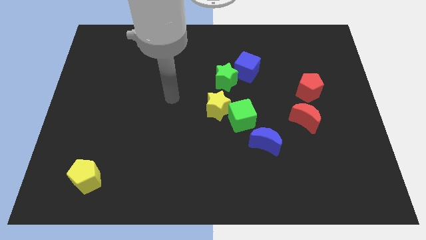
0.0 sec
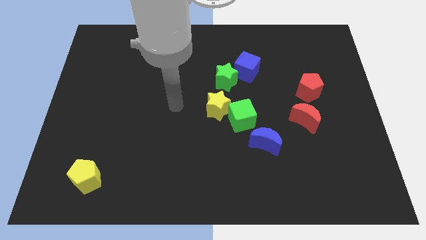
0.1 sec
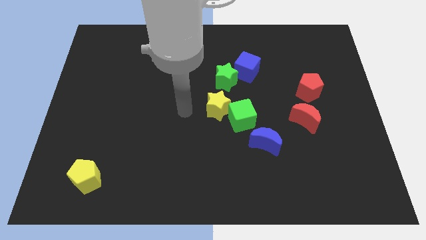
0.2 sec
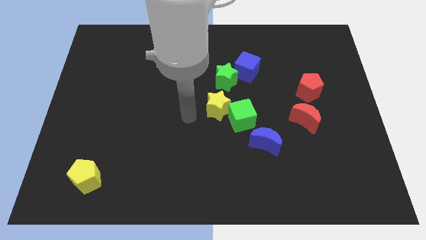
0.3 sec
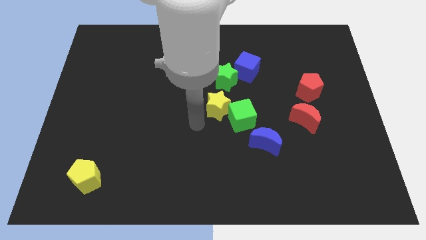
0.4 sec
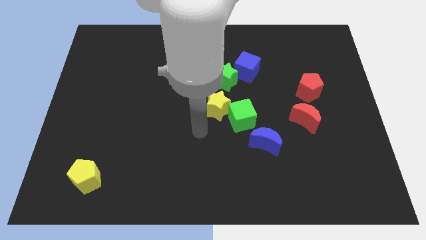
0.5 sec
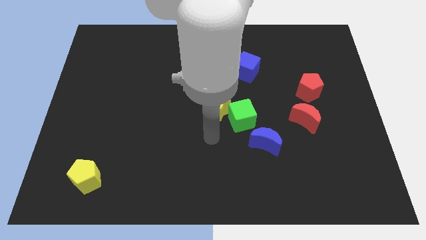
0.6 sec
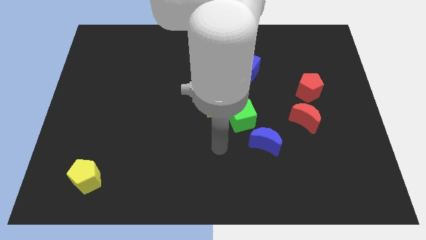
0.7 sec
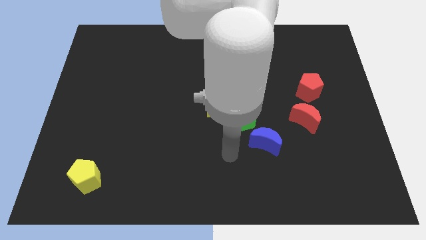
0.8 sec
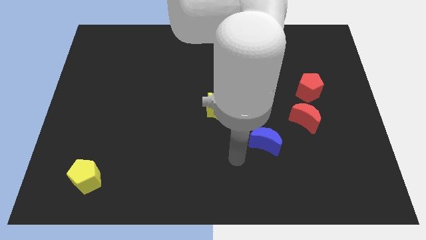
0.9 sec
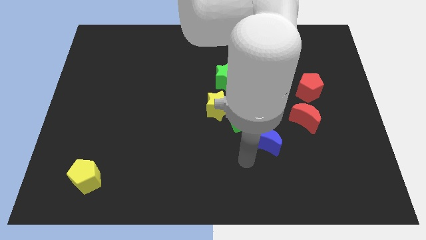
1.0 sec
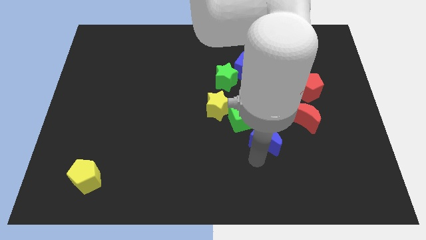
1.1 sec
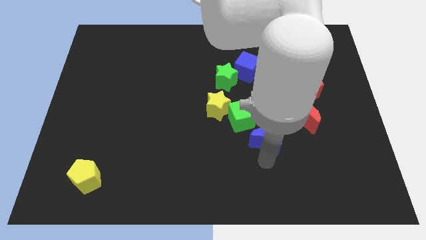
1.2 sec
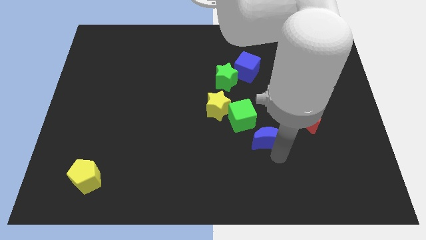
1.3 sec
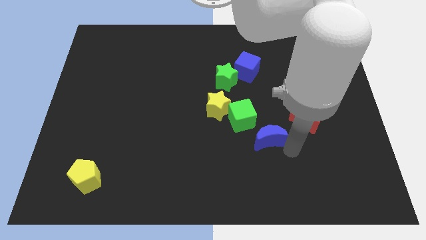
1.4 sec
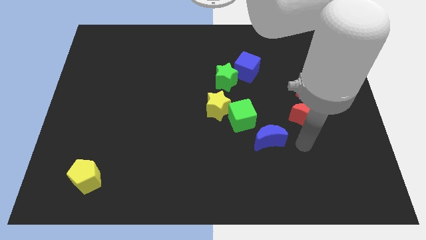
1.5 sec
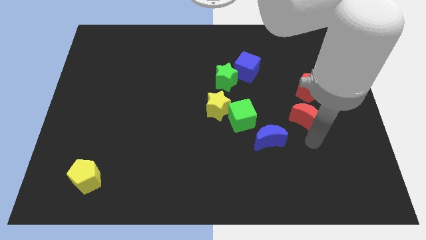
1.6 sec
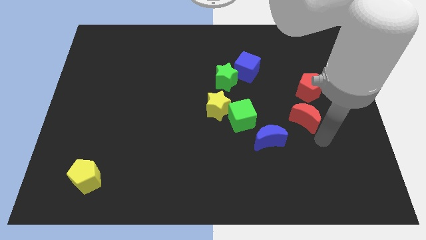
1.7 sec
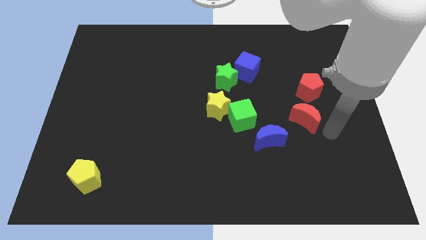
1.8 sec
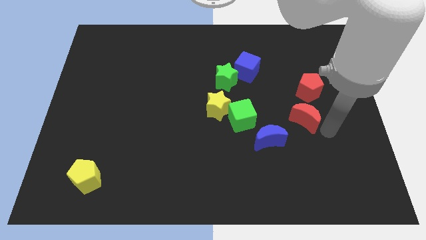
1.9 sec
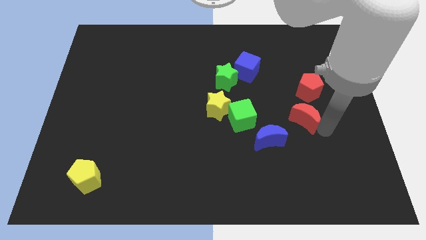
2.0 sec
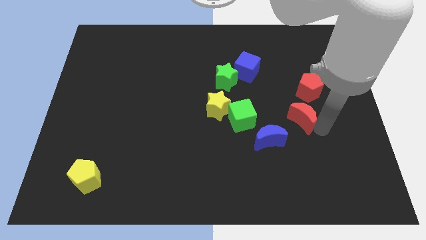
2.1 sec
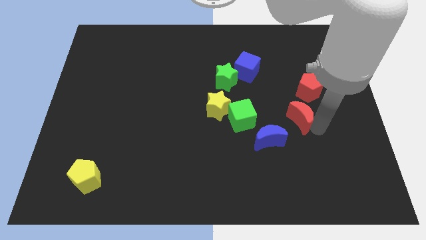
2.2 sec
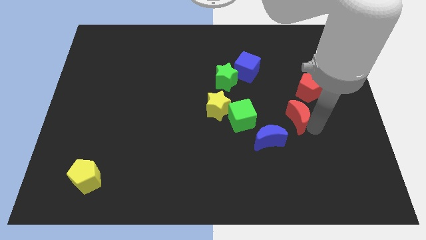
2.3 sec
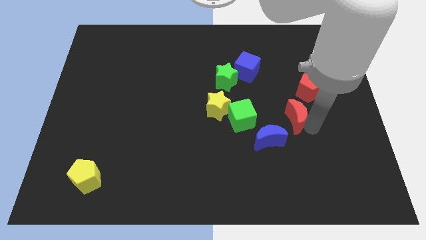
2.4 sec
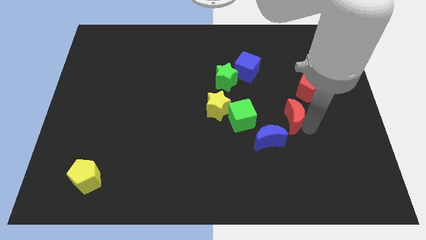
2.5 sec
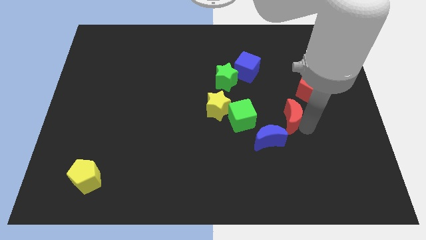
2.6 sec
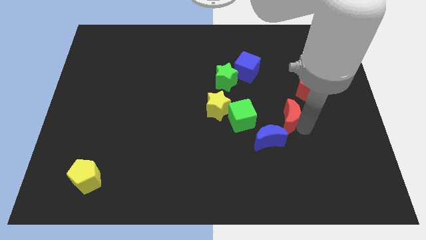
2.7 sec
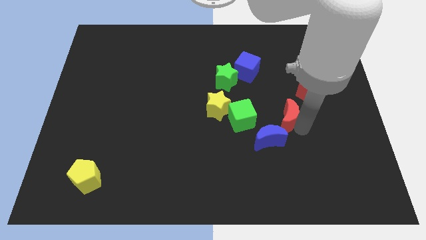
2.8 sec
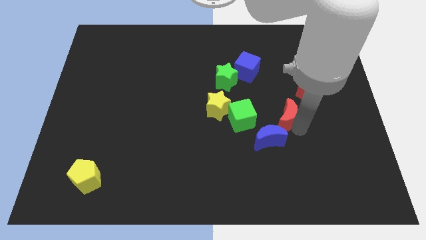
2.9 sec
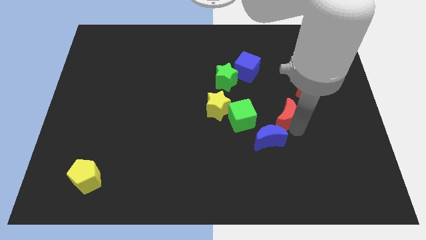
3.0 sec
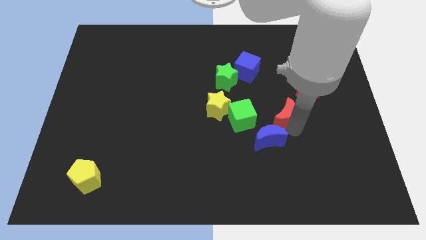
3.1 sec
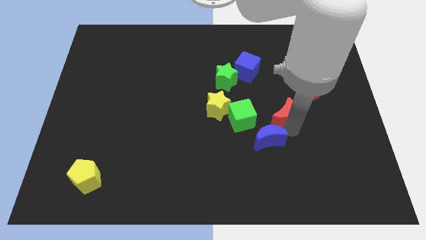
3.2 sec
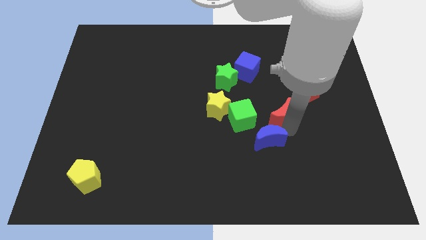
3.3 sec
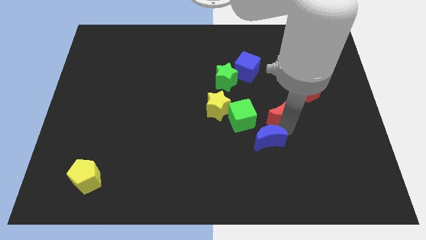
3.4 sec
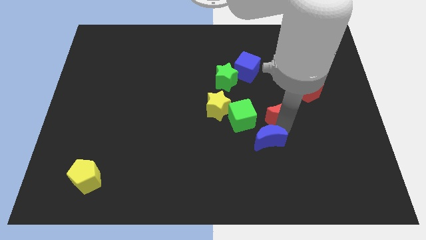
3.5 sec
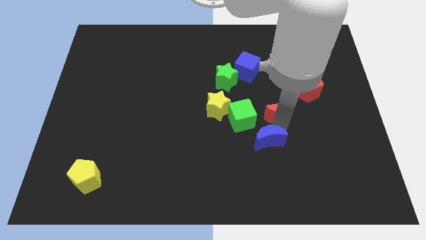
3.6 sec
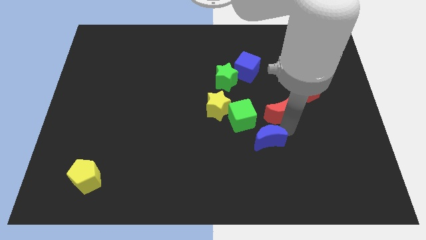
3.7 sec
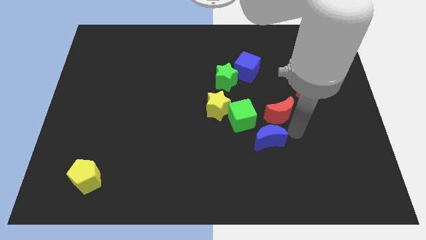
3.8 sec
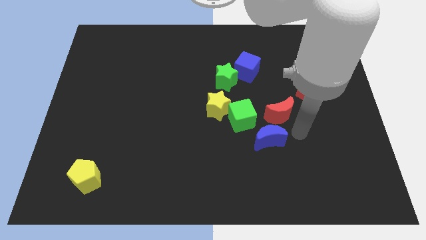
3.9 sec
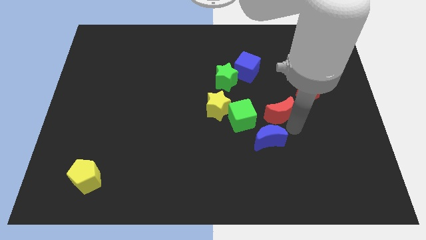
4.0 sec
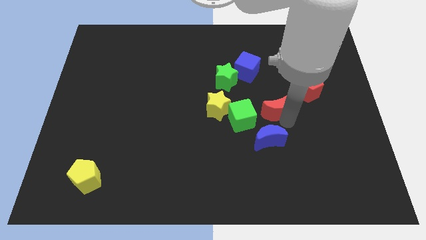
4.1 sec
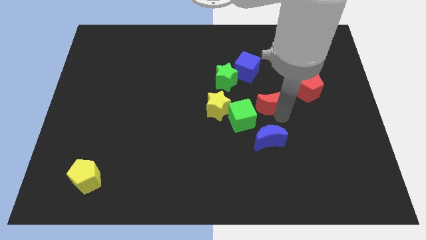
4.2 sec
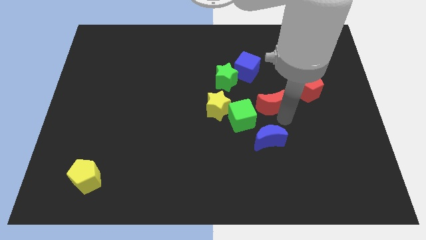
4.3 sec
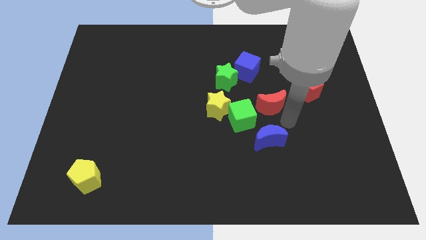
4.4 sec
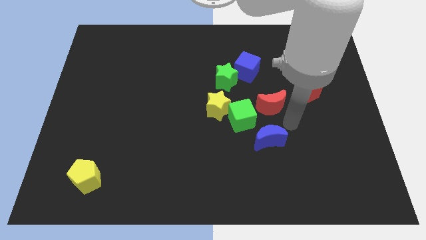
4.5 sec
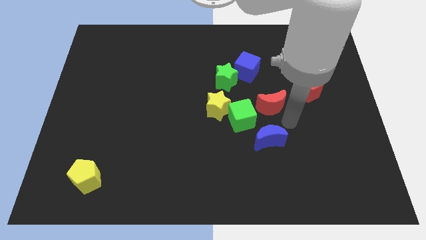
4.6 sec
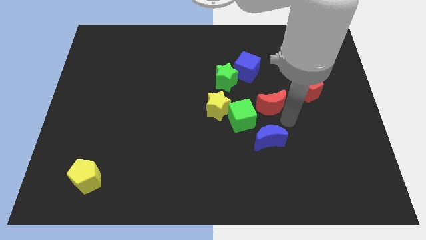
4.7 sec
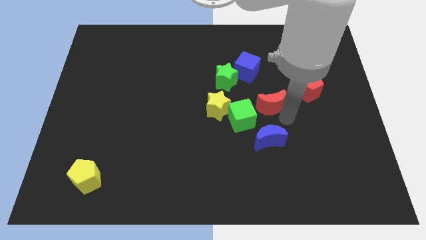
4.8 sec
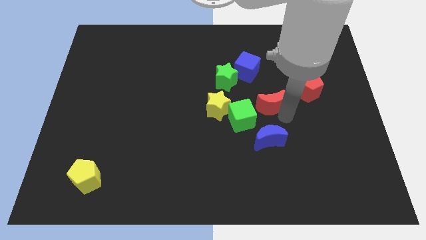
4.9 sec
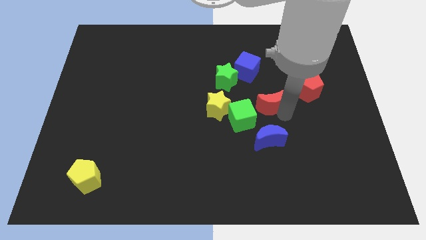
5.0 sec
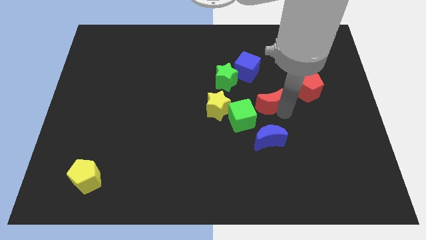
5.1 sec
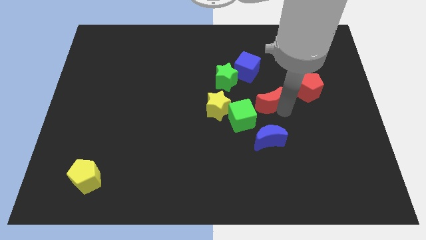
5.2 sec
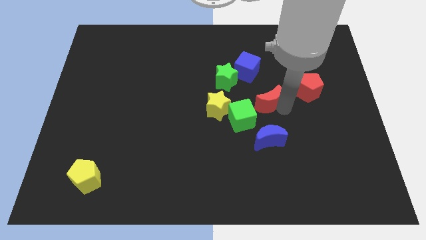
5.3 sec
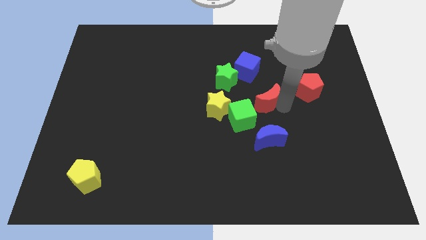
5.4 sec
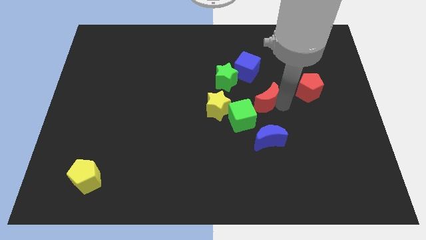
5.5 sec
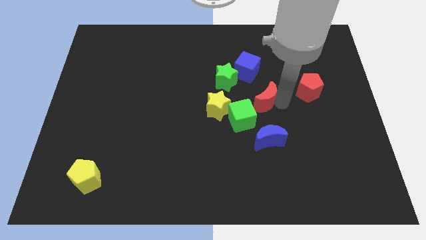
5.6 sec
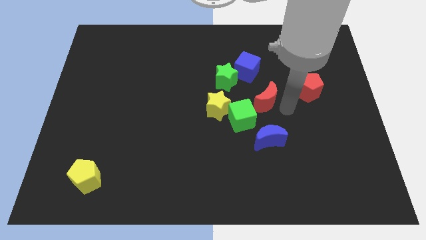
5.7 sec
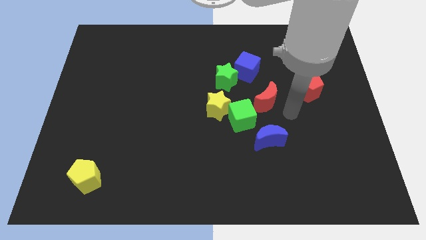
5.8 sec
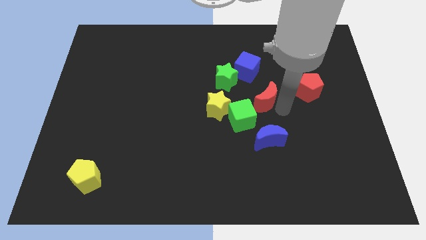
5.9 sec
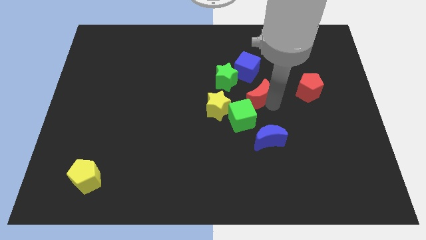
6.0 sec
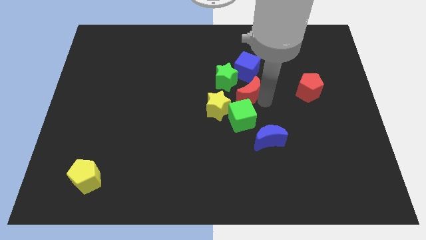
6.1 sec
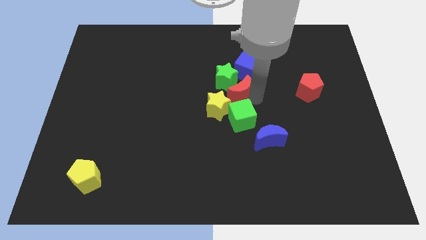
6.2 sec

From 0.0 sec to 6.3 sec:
move the red moon towards the green star

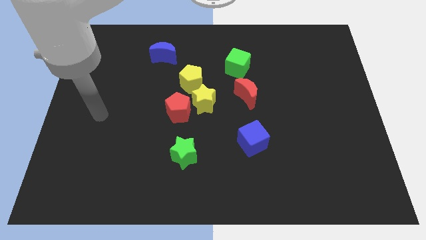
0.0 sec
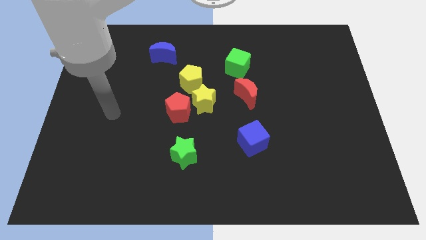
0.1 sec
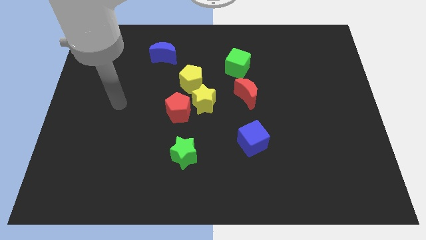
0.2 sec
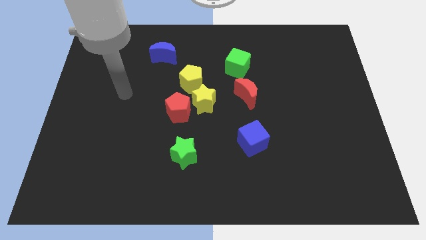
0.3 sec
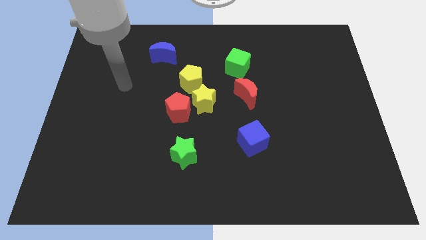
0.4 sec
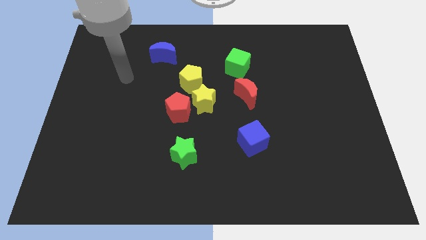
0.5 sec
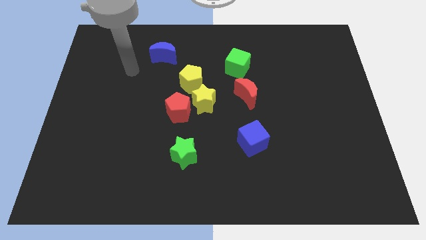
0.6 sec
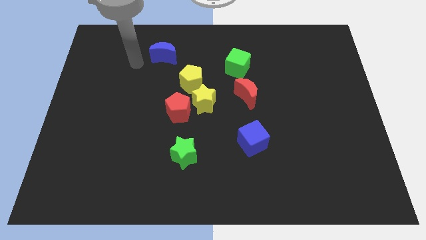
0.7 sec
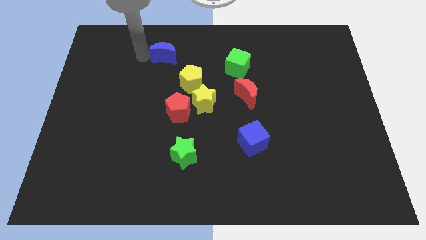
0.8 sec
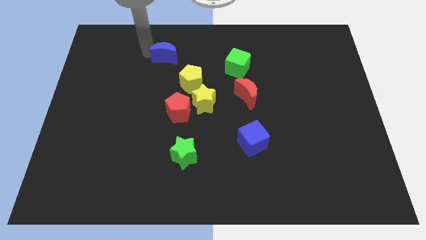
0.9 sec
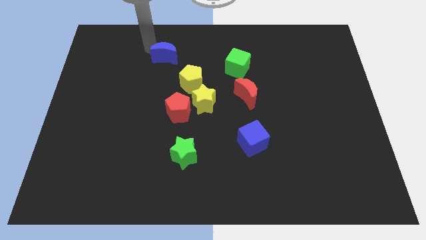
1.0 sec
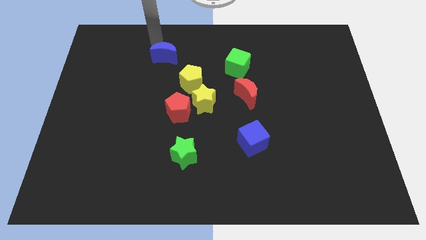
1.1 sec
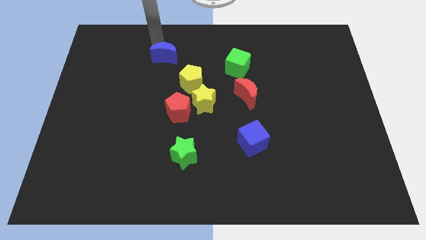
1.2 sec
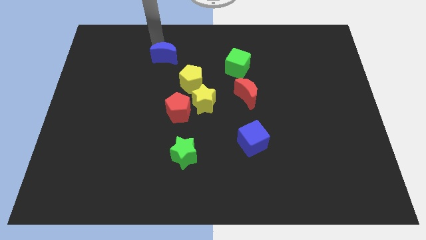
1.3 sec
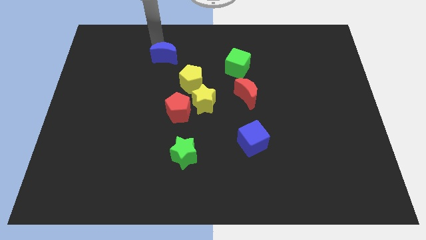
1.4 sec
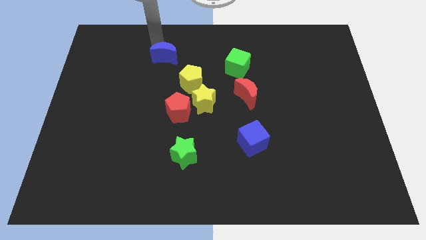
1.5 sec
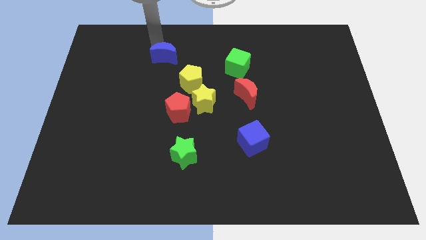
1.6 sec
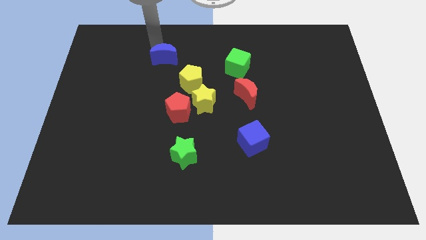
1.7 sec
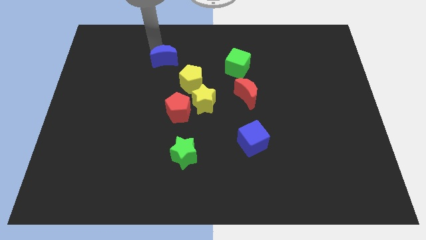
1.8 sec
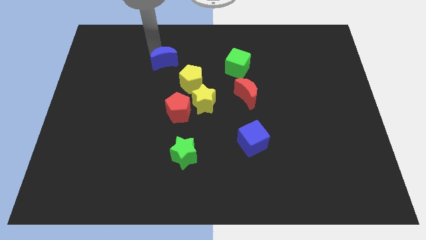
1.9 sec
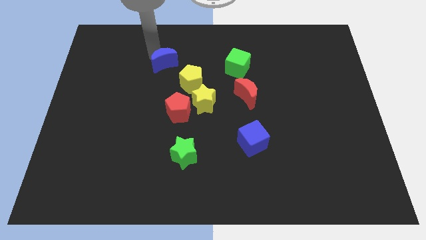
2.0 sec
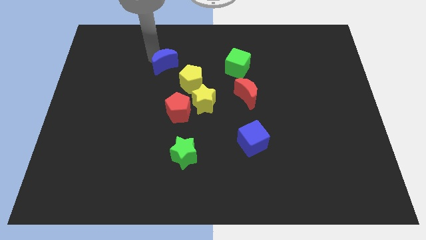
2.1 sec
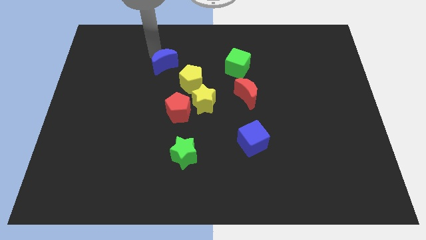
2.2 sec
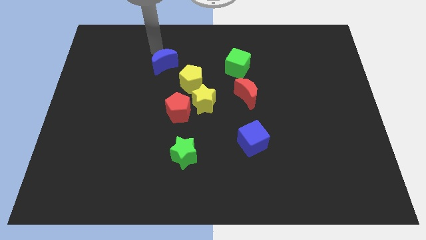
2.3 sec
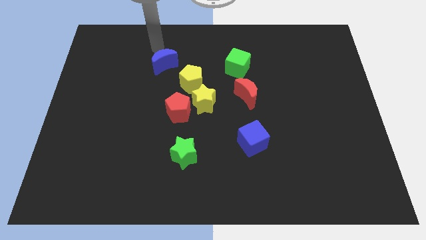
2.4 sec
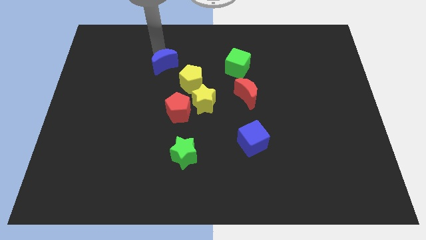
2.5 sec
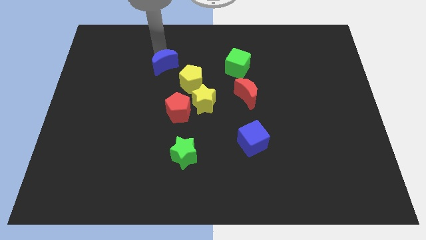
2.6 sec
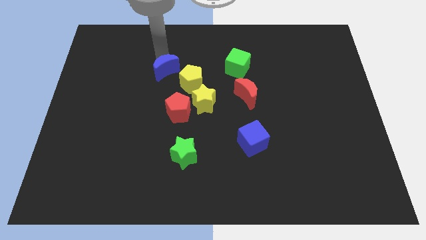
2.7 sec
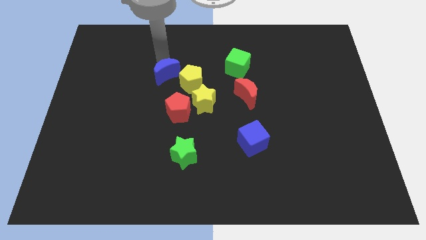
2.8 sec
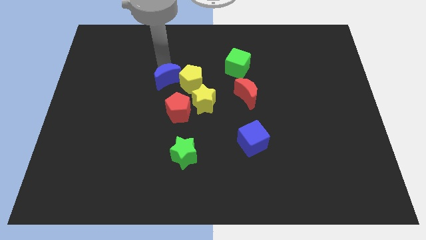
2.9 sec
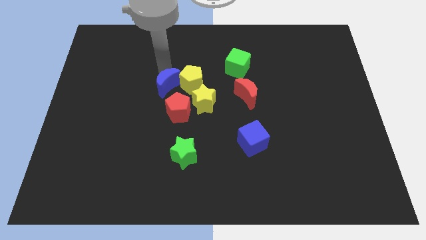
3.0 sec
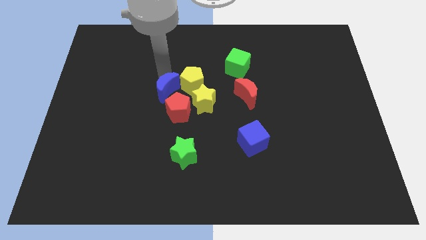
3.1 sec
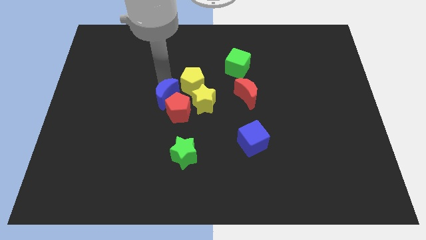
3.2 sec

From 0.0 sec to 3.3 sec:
move the blue moon to the red pentagon
